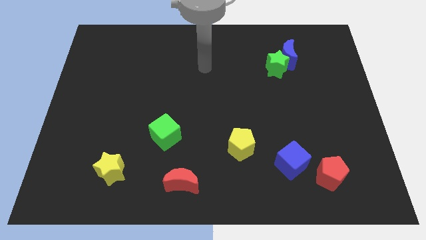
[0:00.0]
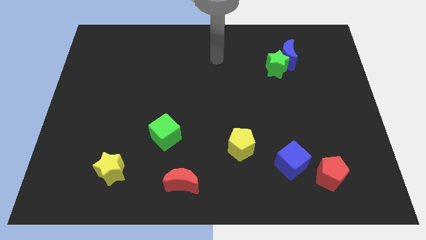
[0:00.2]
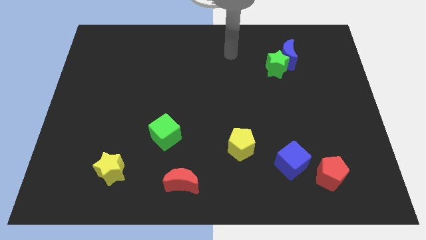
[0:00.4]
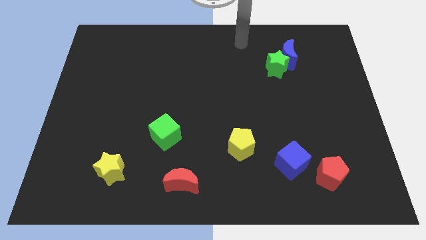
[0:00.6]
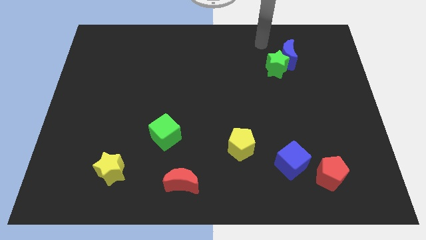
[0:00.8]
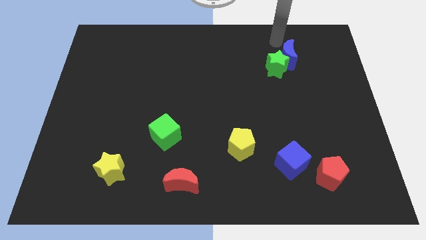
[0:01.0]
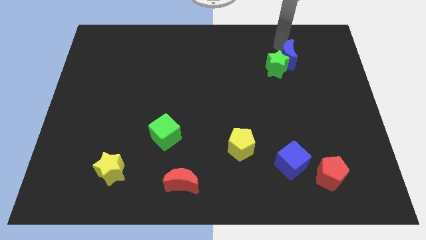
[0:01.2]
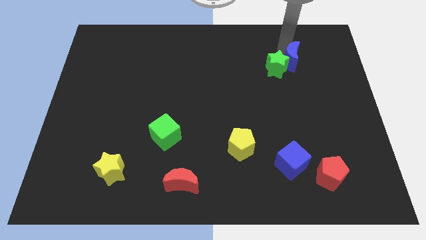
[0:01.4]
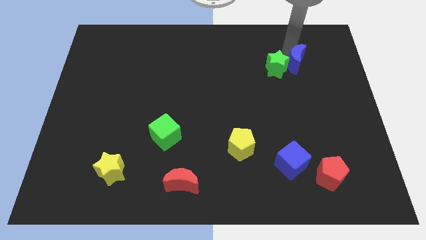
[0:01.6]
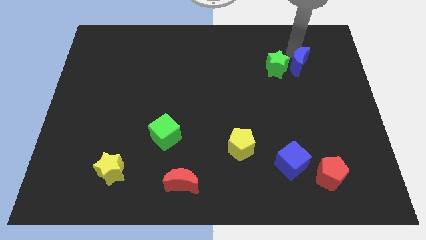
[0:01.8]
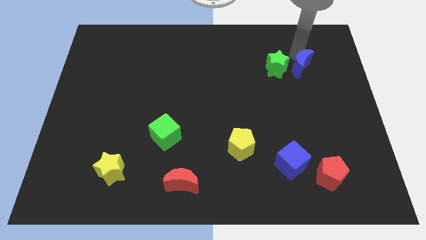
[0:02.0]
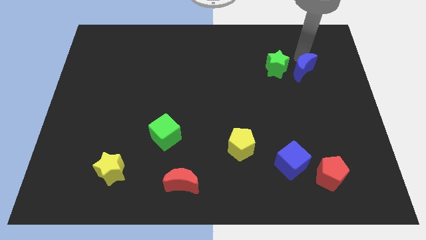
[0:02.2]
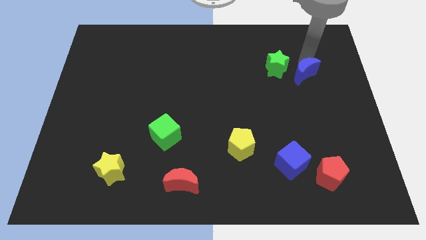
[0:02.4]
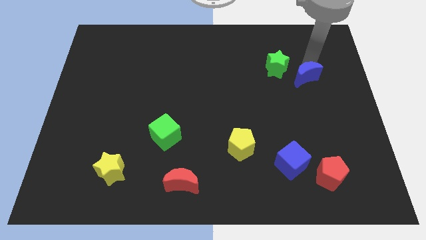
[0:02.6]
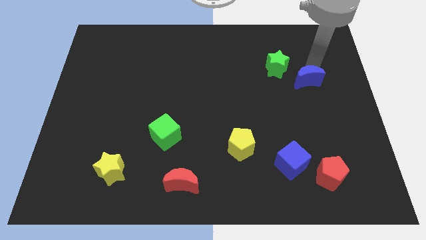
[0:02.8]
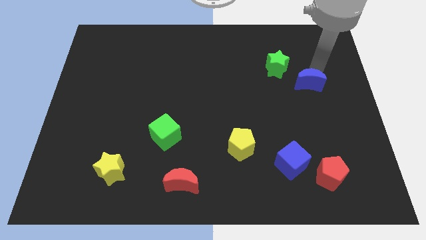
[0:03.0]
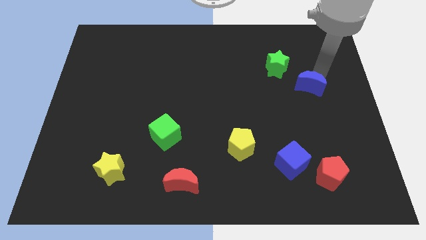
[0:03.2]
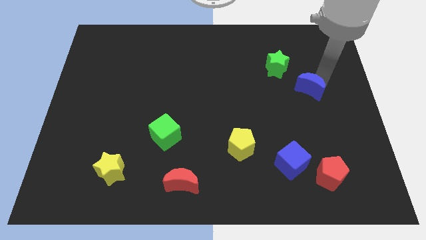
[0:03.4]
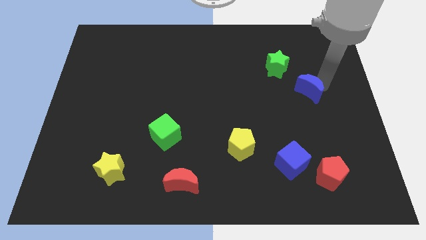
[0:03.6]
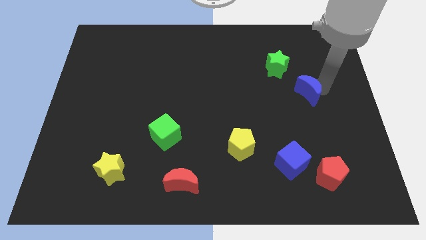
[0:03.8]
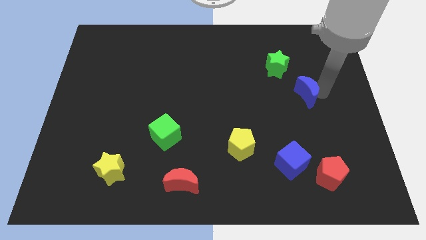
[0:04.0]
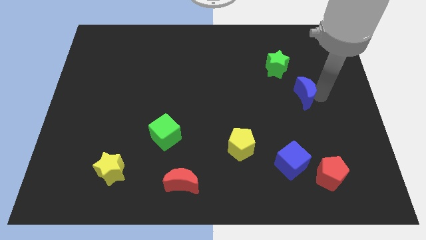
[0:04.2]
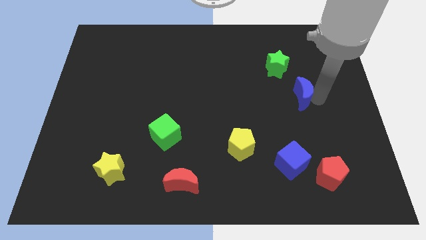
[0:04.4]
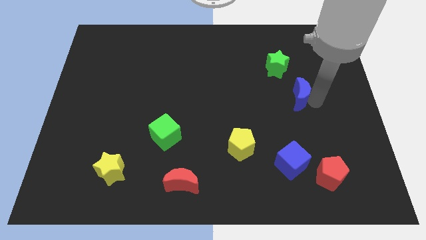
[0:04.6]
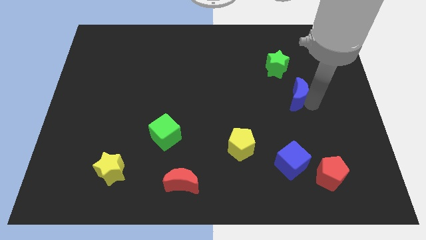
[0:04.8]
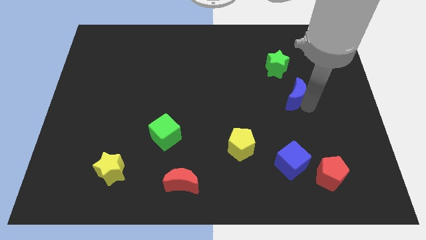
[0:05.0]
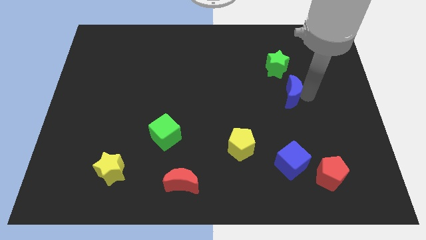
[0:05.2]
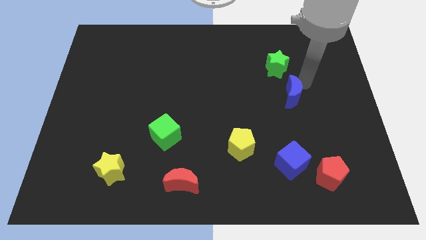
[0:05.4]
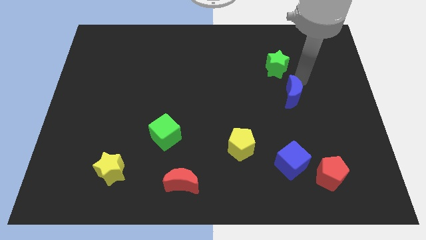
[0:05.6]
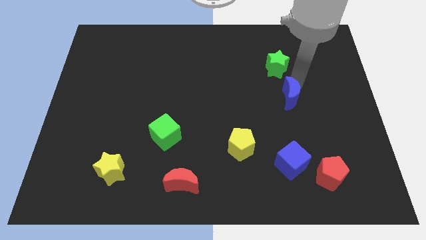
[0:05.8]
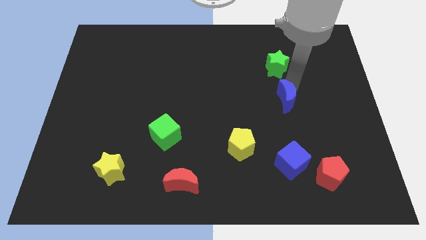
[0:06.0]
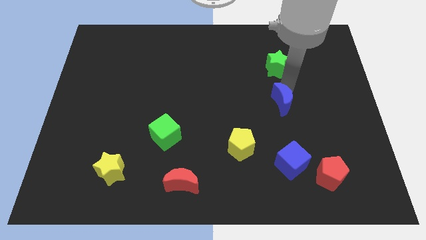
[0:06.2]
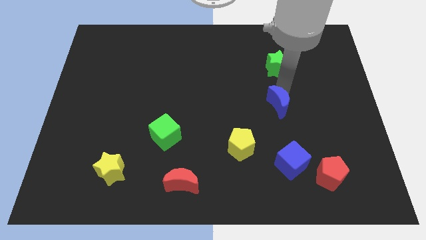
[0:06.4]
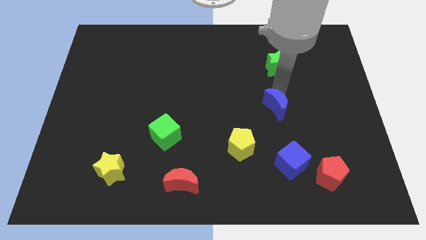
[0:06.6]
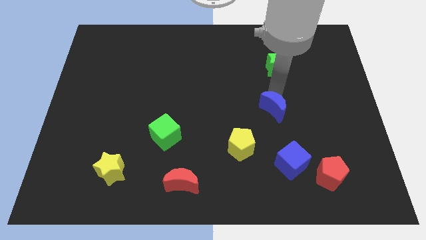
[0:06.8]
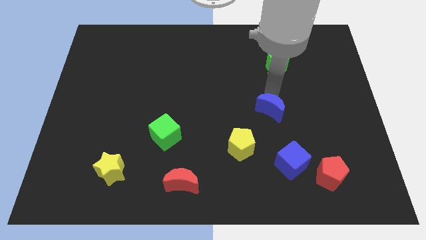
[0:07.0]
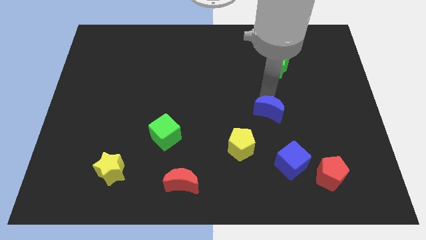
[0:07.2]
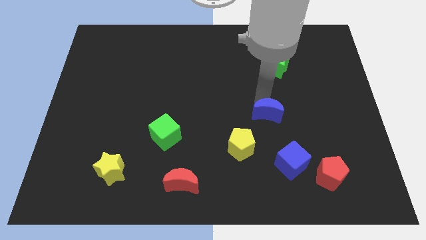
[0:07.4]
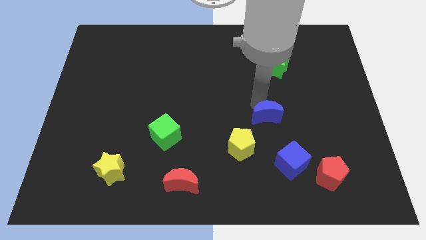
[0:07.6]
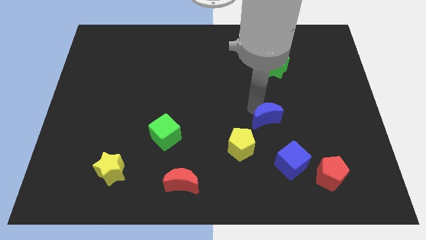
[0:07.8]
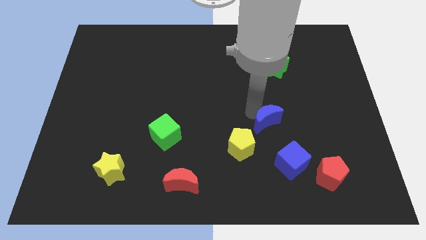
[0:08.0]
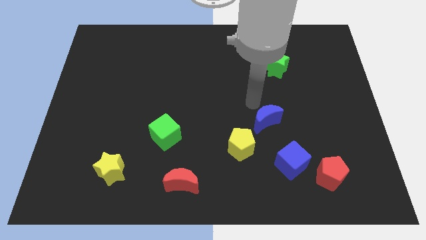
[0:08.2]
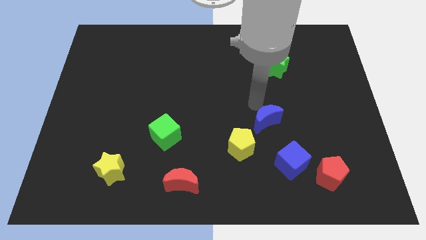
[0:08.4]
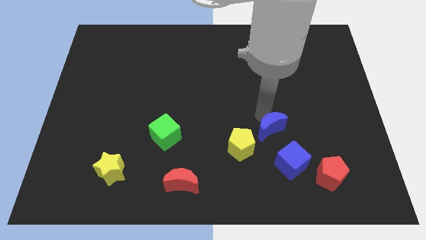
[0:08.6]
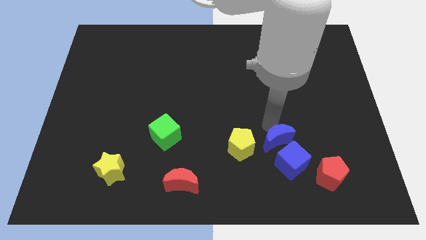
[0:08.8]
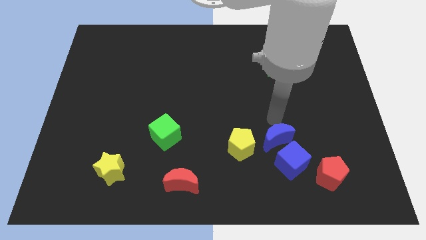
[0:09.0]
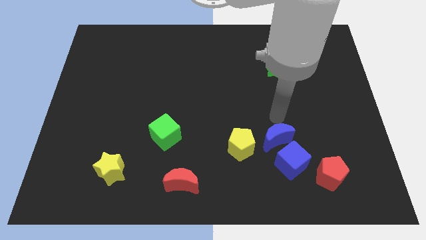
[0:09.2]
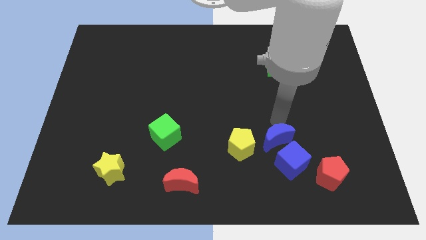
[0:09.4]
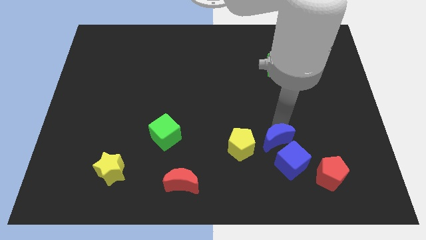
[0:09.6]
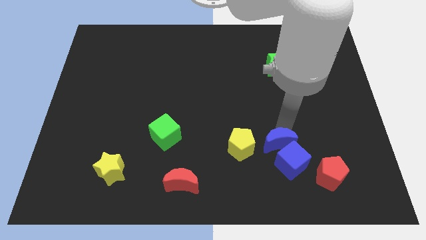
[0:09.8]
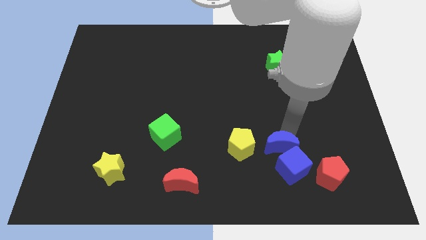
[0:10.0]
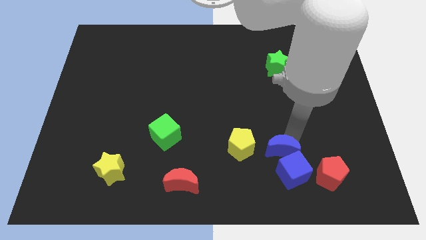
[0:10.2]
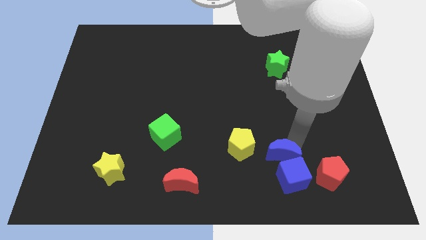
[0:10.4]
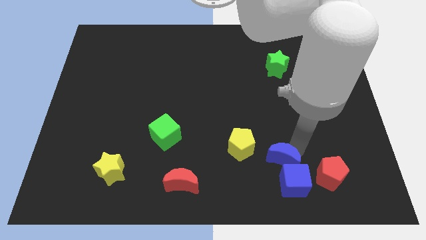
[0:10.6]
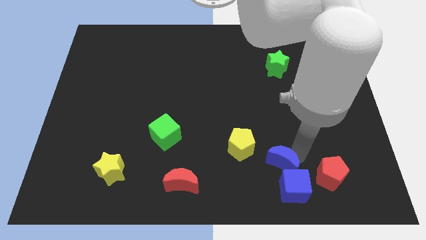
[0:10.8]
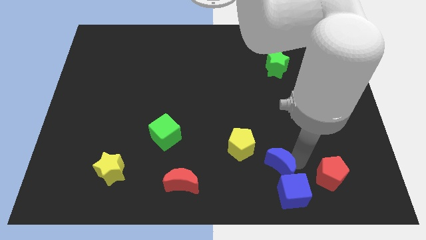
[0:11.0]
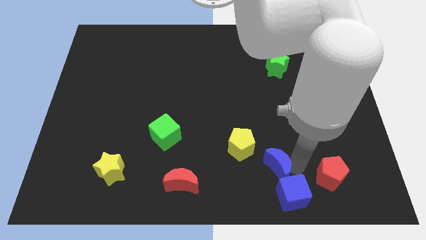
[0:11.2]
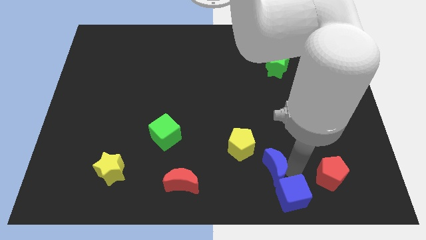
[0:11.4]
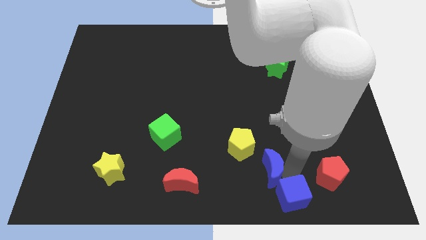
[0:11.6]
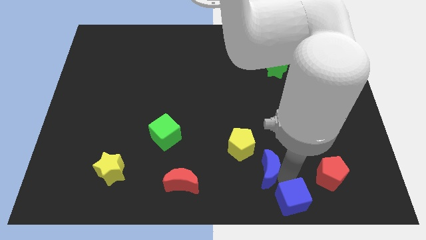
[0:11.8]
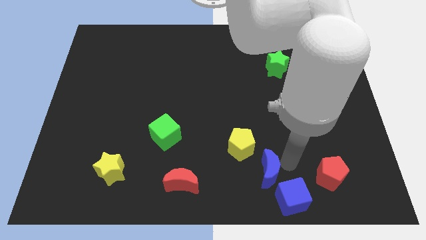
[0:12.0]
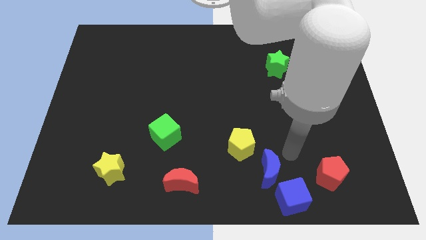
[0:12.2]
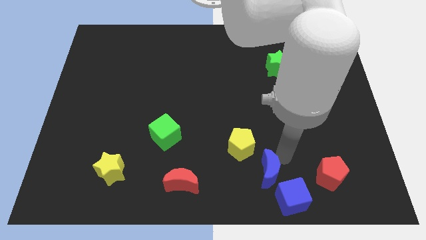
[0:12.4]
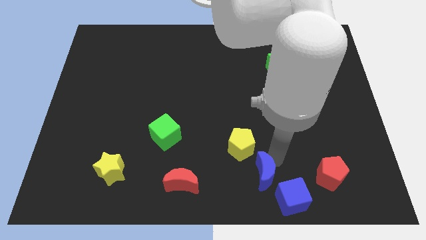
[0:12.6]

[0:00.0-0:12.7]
push the blue moon to the bottom
